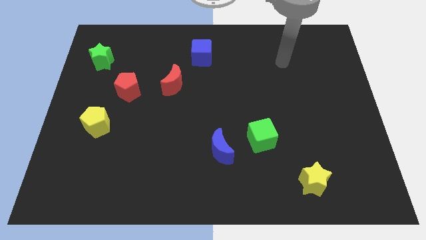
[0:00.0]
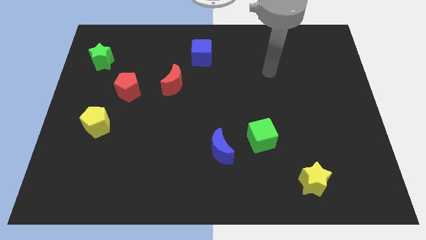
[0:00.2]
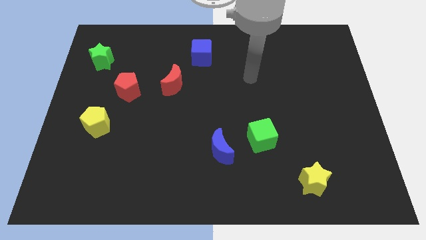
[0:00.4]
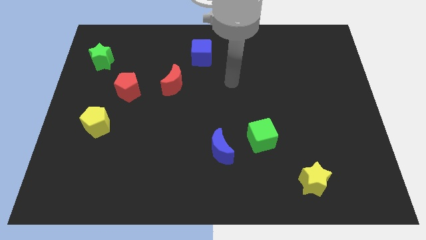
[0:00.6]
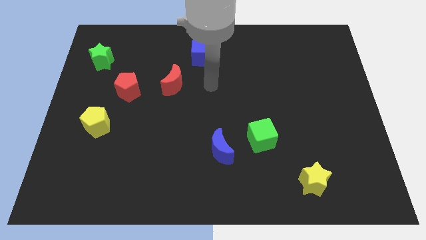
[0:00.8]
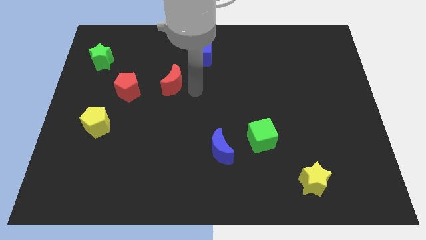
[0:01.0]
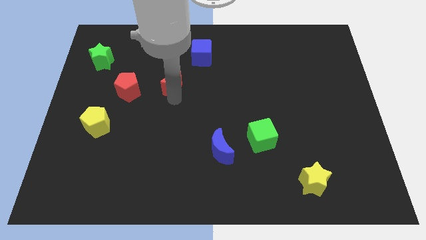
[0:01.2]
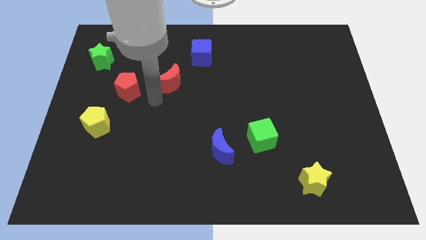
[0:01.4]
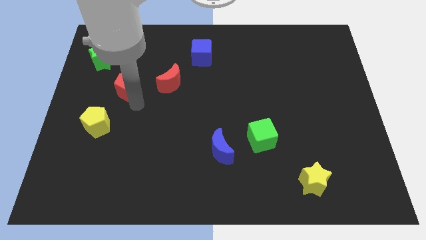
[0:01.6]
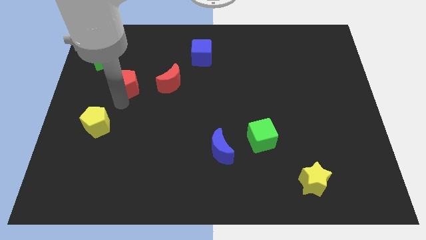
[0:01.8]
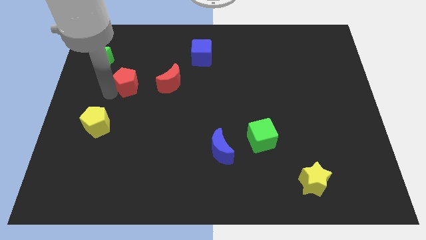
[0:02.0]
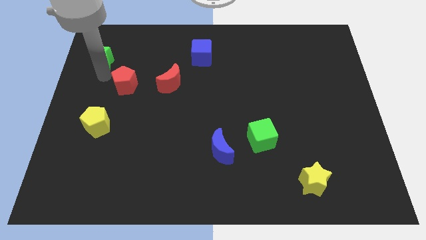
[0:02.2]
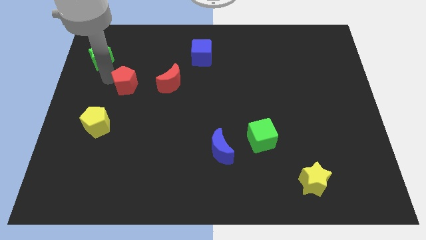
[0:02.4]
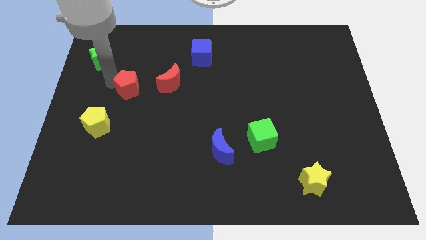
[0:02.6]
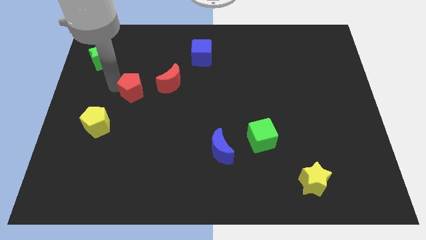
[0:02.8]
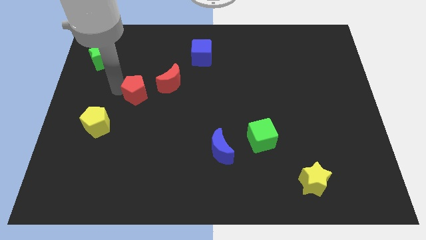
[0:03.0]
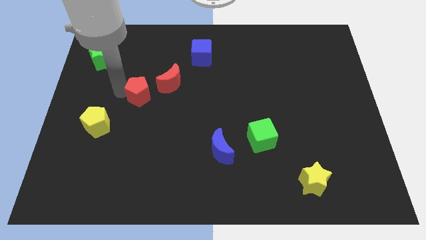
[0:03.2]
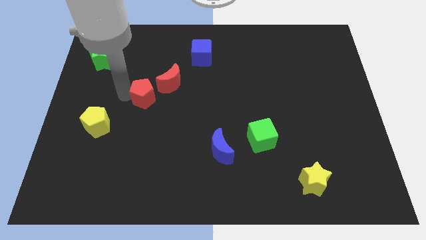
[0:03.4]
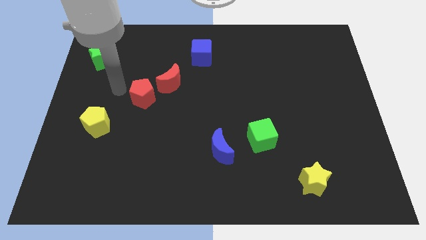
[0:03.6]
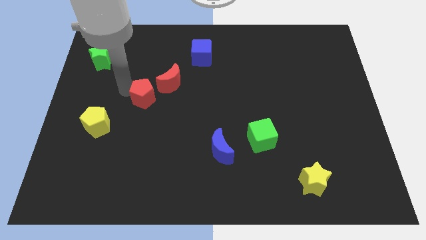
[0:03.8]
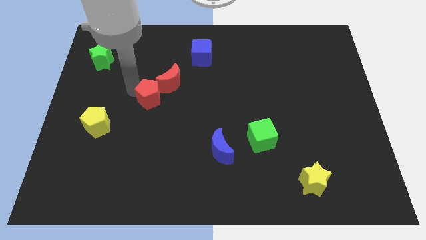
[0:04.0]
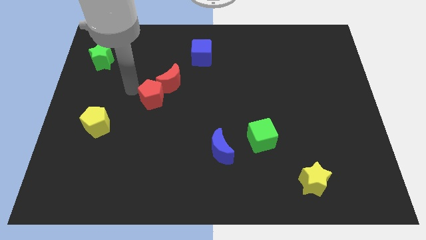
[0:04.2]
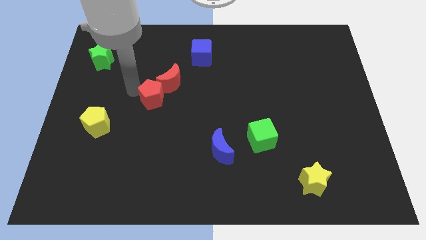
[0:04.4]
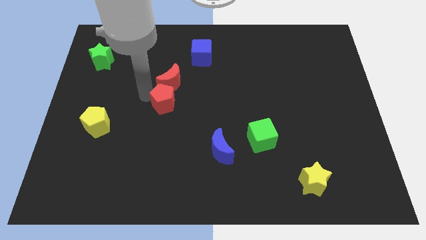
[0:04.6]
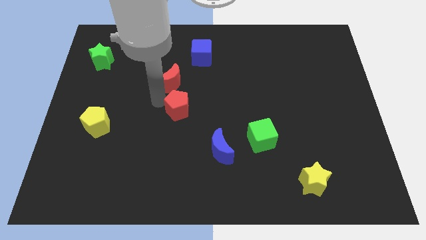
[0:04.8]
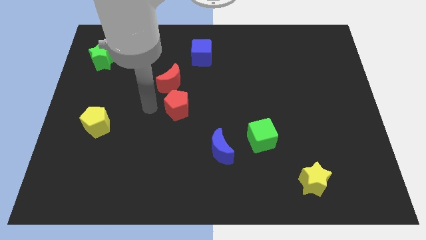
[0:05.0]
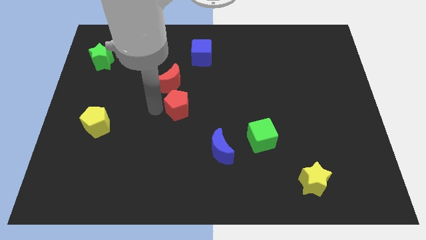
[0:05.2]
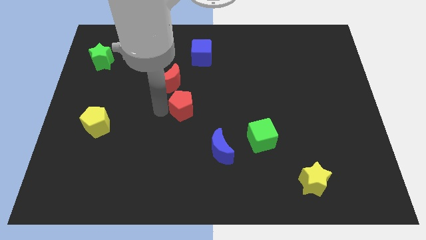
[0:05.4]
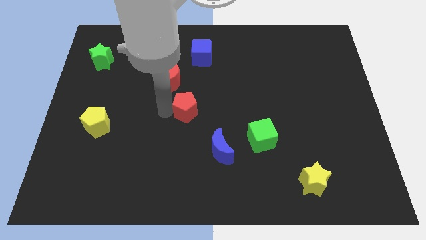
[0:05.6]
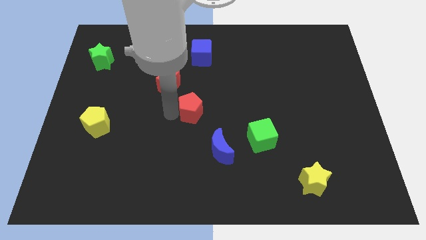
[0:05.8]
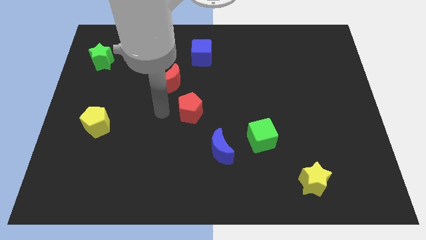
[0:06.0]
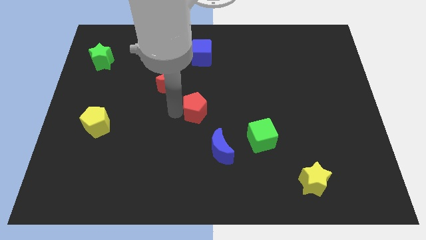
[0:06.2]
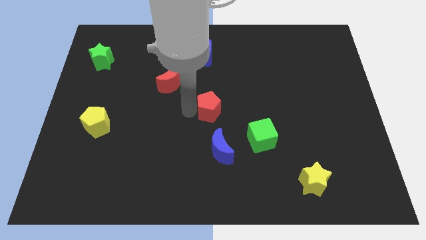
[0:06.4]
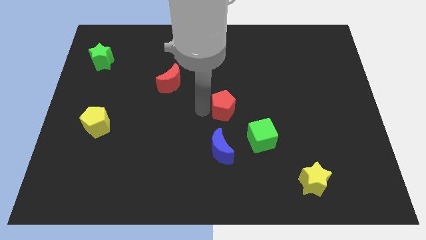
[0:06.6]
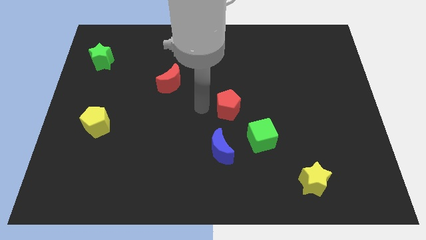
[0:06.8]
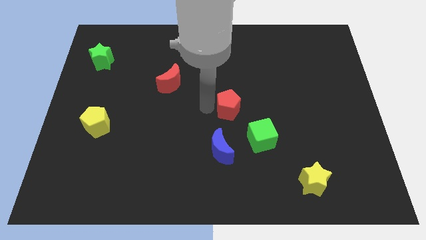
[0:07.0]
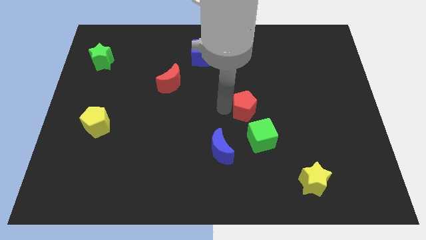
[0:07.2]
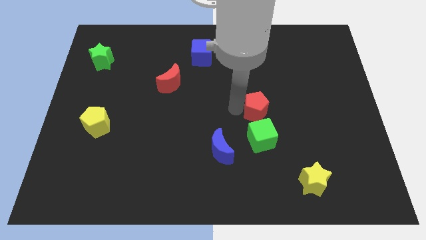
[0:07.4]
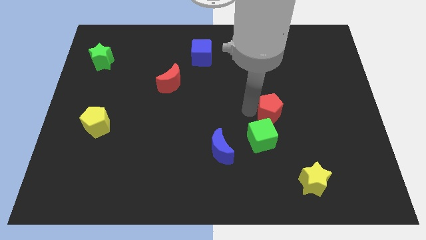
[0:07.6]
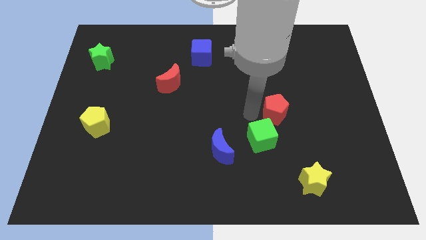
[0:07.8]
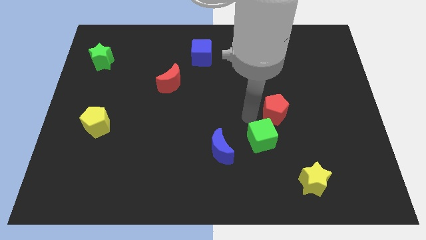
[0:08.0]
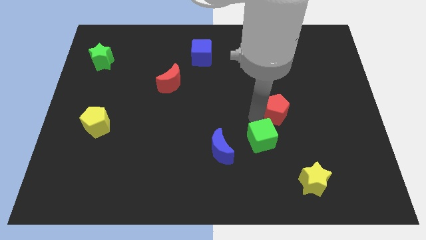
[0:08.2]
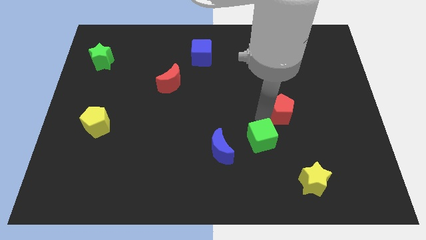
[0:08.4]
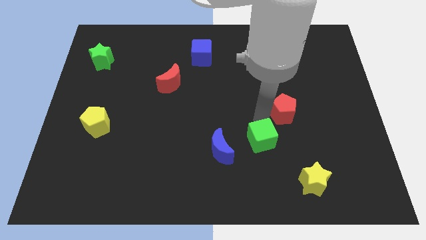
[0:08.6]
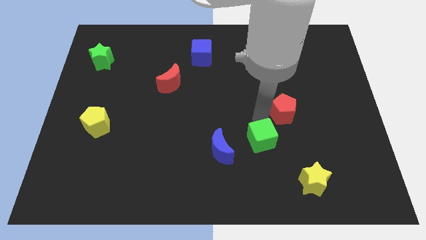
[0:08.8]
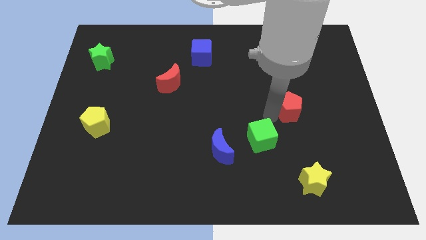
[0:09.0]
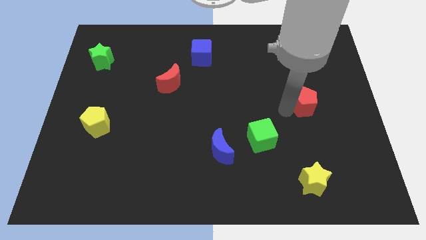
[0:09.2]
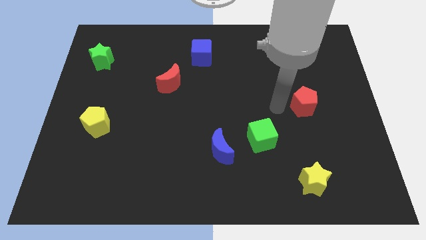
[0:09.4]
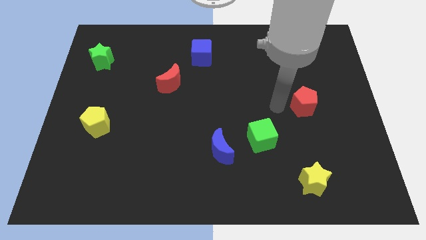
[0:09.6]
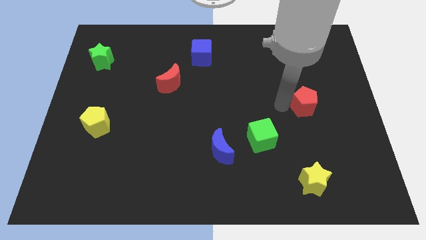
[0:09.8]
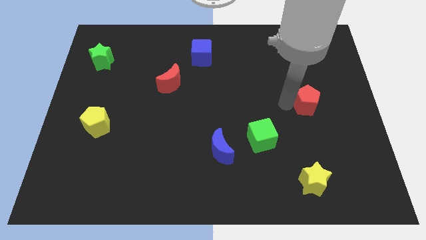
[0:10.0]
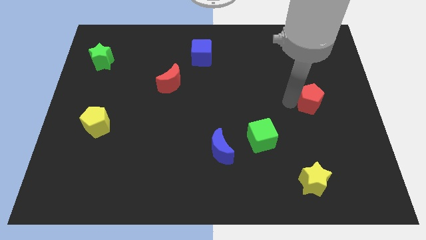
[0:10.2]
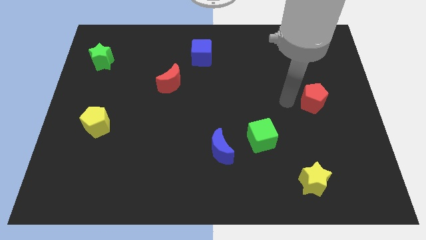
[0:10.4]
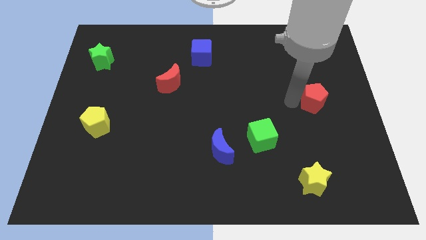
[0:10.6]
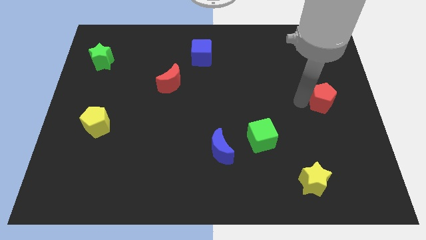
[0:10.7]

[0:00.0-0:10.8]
push the red pentagon to the center right

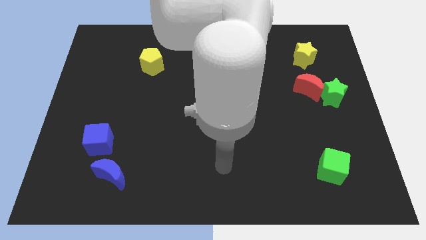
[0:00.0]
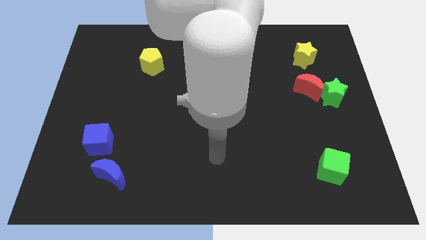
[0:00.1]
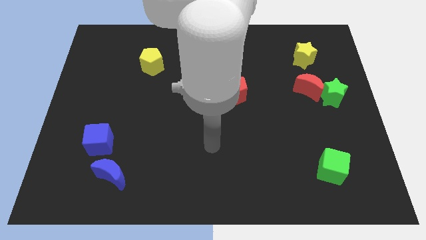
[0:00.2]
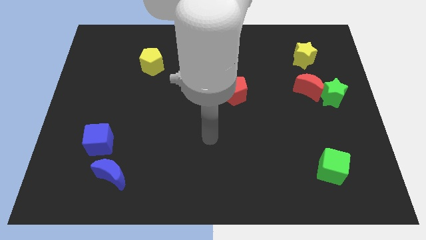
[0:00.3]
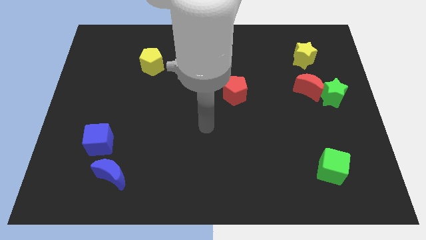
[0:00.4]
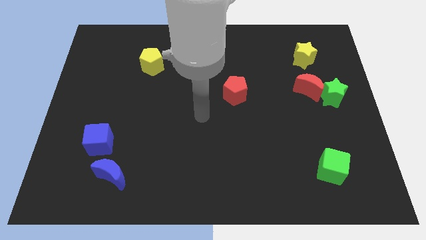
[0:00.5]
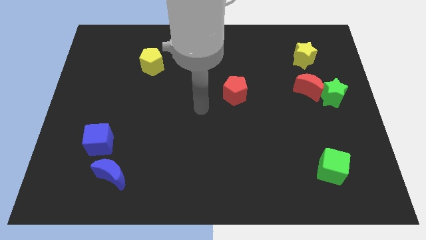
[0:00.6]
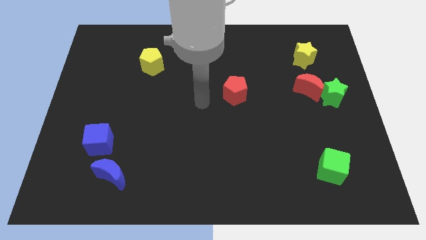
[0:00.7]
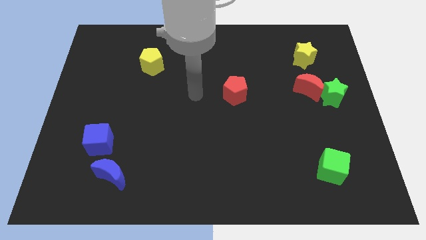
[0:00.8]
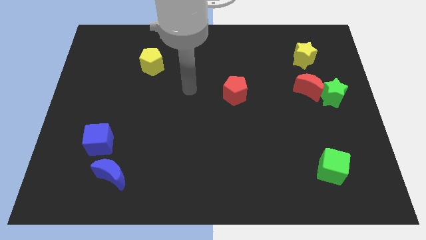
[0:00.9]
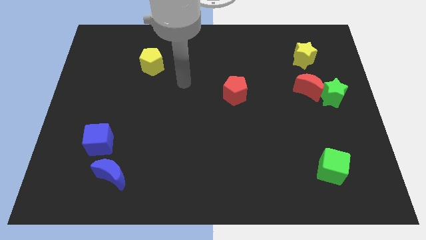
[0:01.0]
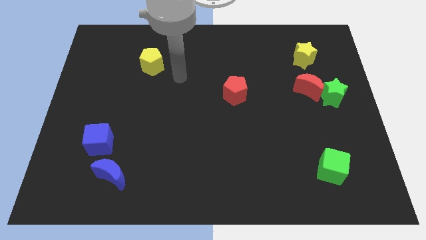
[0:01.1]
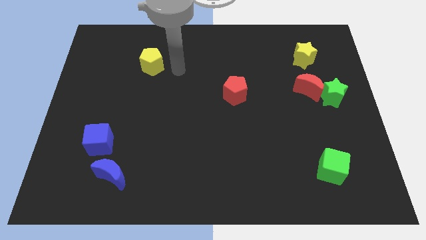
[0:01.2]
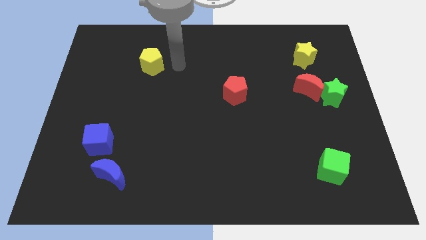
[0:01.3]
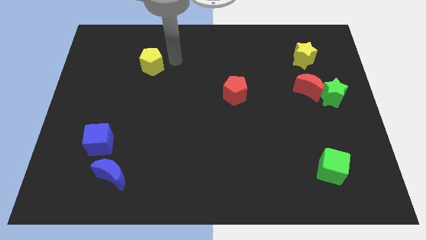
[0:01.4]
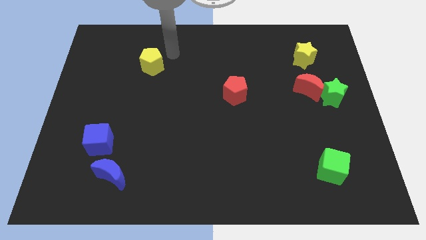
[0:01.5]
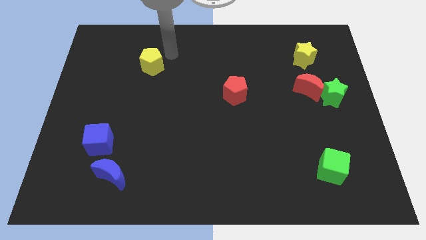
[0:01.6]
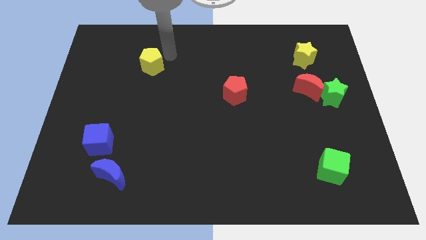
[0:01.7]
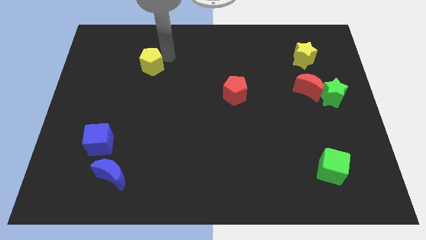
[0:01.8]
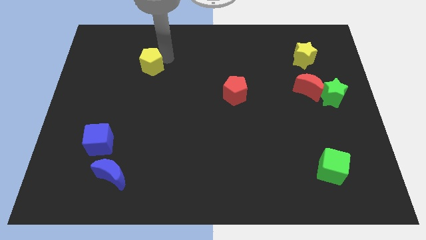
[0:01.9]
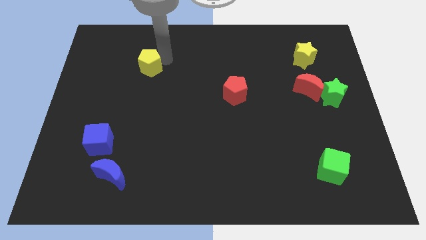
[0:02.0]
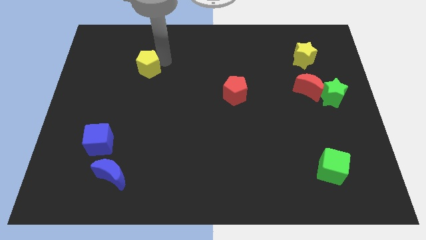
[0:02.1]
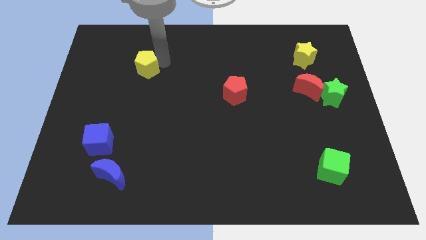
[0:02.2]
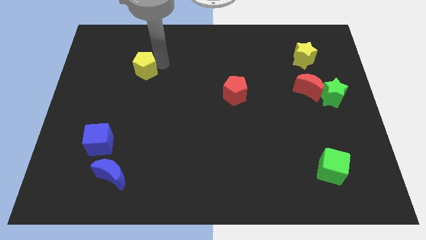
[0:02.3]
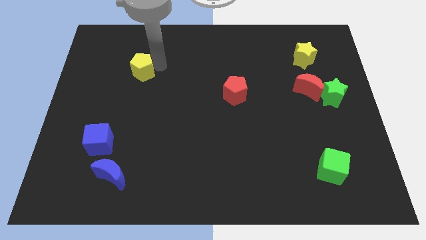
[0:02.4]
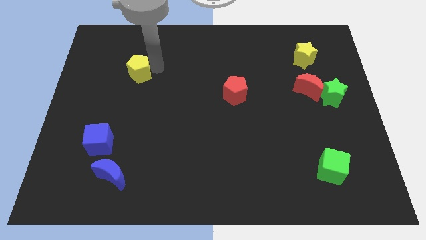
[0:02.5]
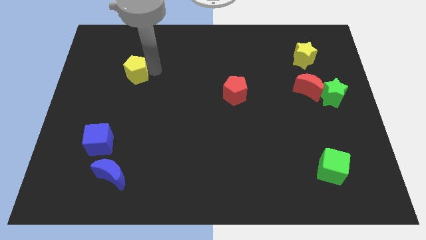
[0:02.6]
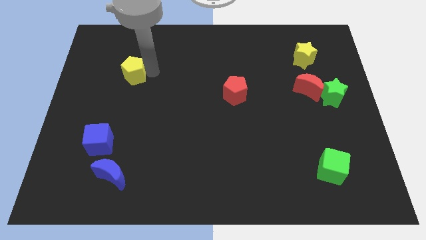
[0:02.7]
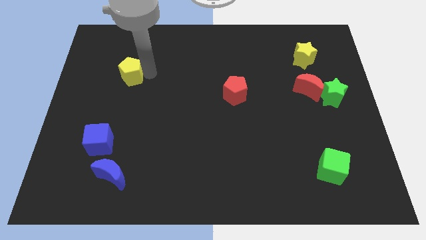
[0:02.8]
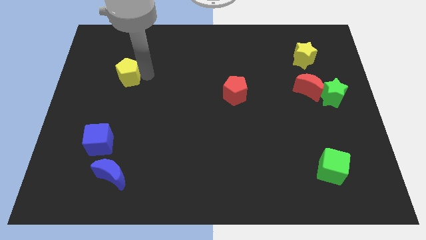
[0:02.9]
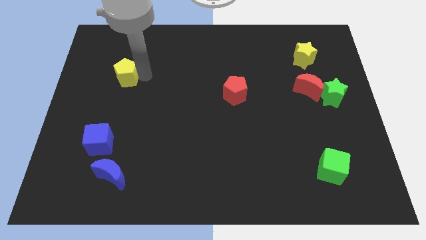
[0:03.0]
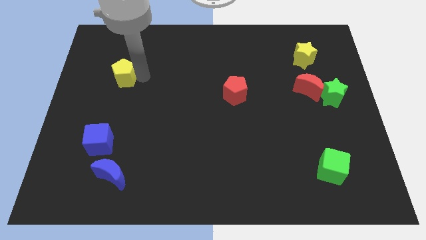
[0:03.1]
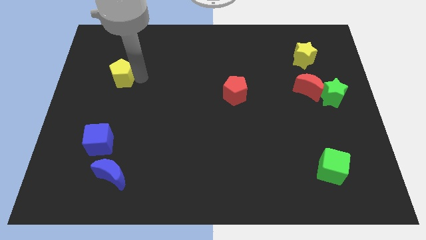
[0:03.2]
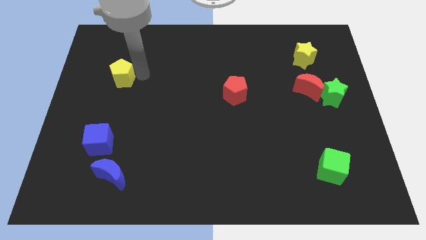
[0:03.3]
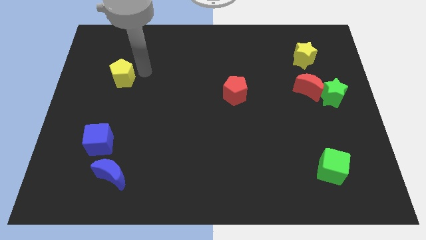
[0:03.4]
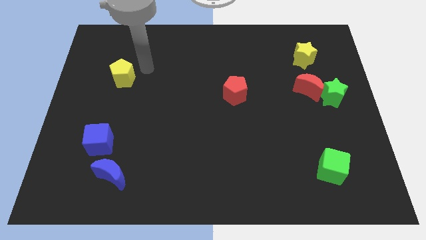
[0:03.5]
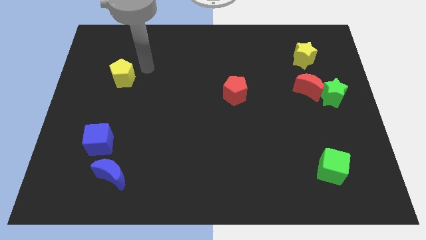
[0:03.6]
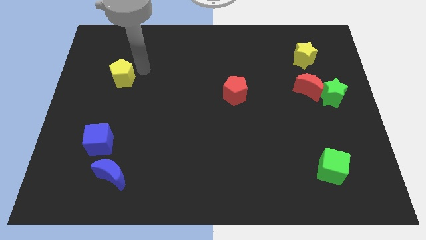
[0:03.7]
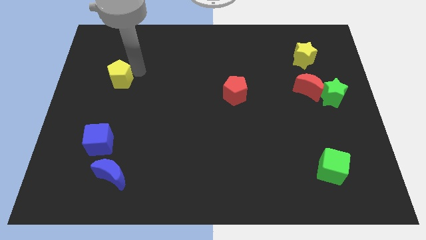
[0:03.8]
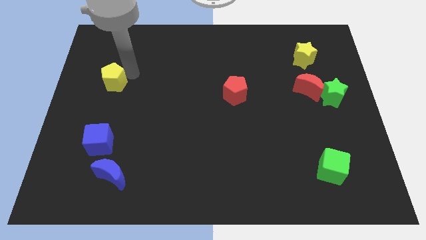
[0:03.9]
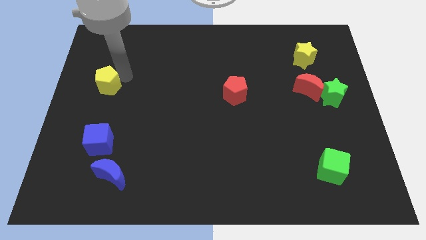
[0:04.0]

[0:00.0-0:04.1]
put the yellow pentagon to the center left
